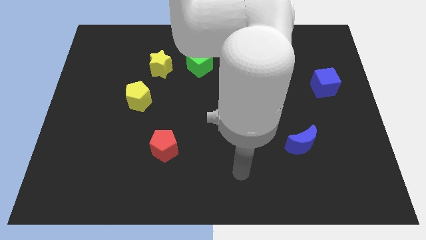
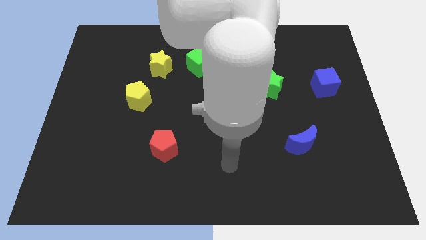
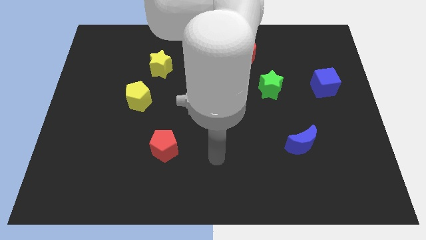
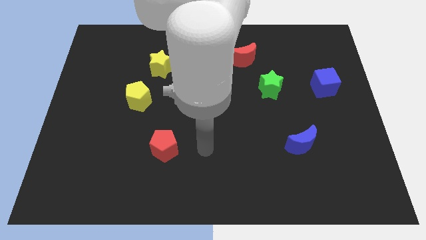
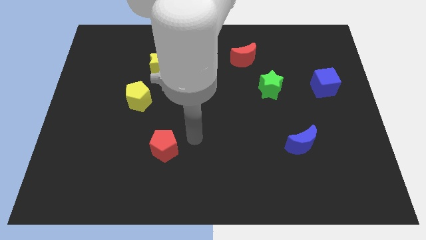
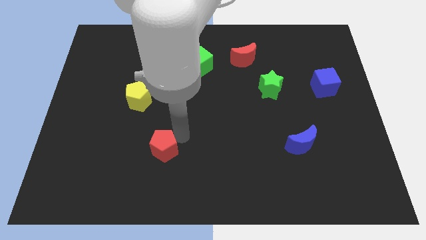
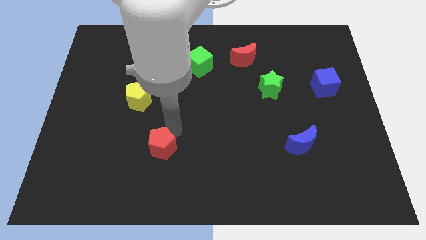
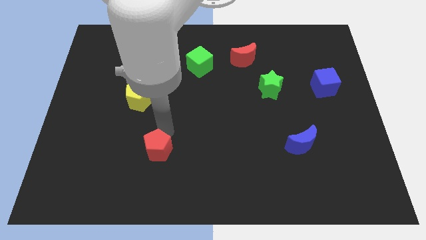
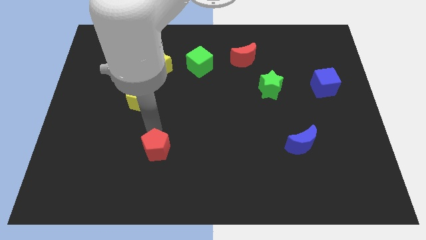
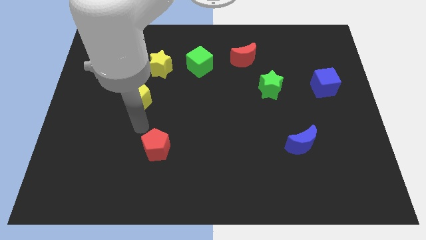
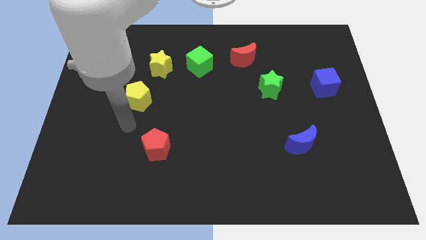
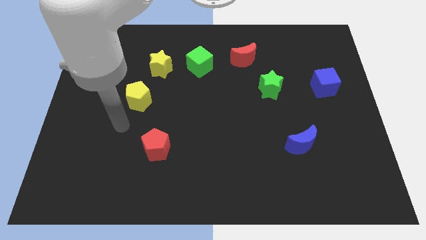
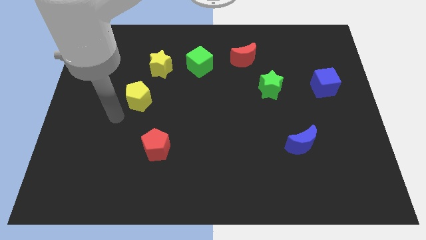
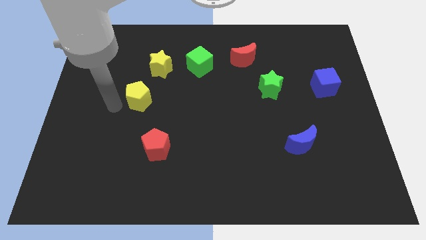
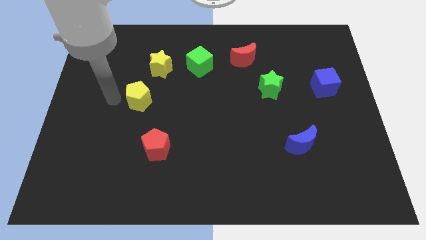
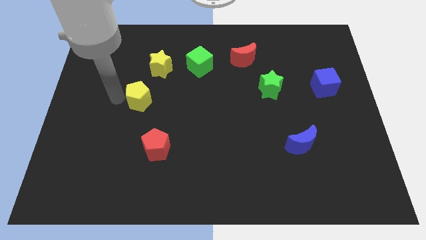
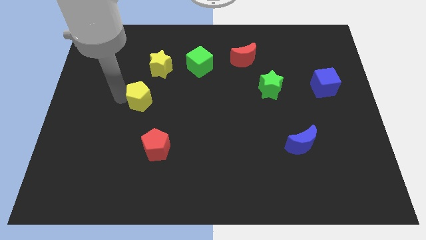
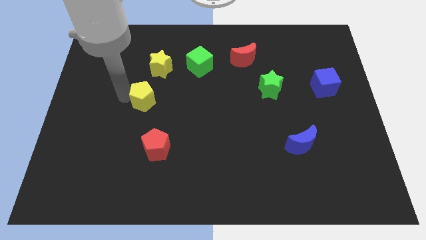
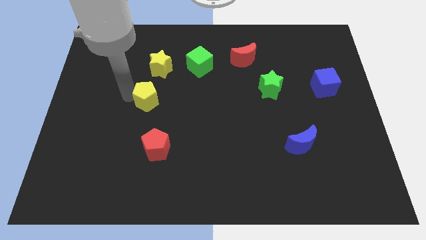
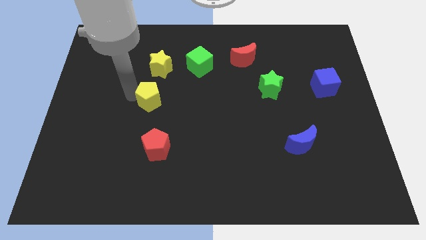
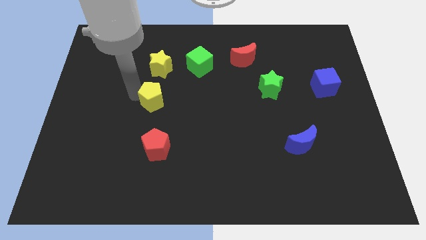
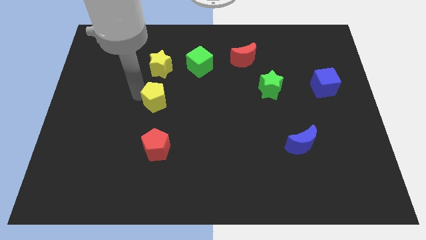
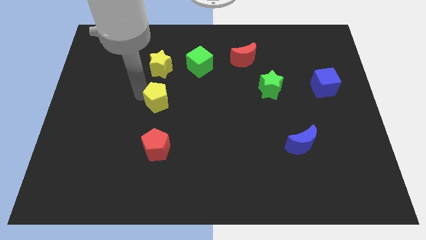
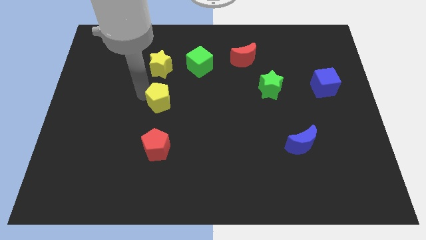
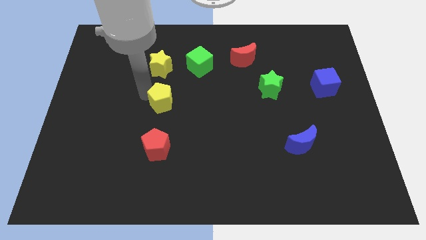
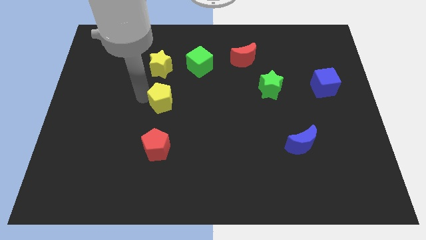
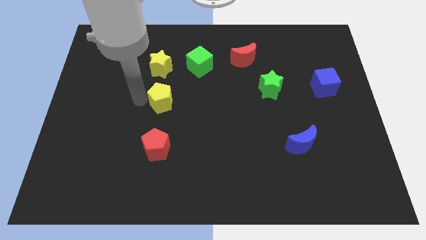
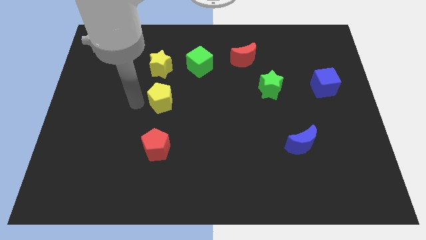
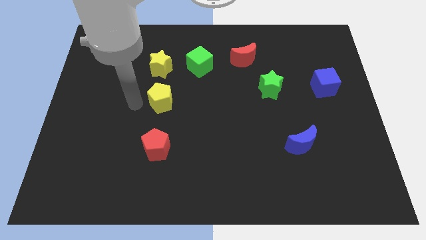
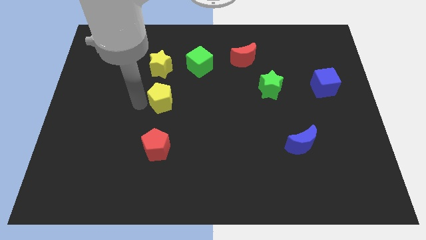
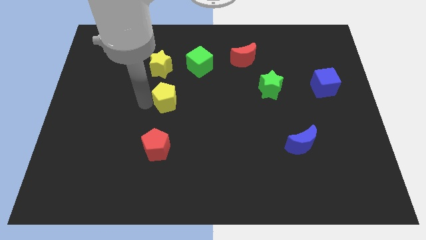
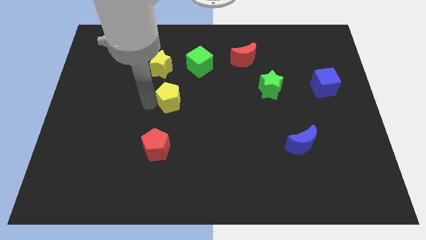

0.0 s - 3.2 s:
slide the yellow pentagon to the right a little

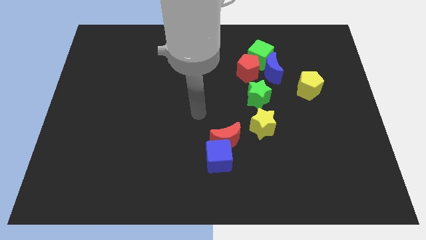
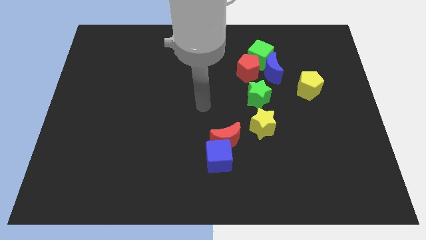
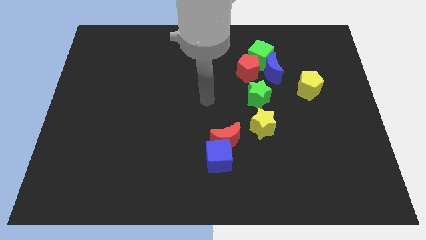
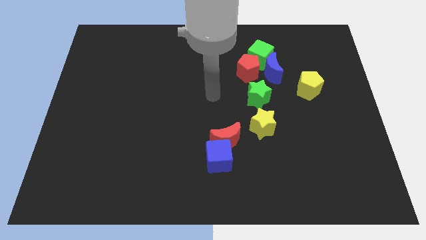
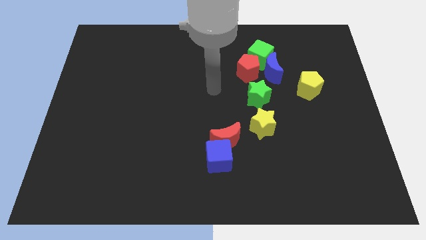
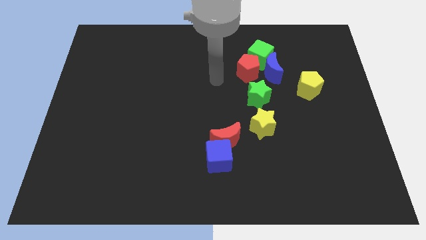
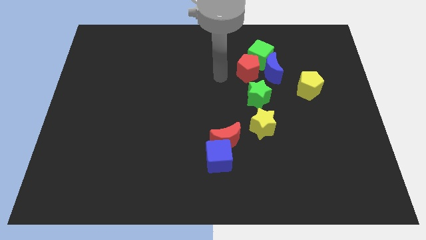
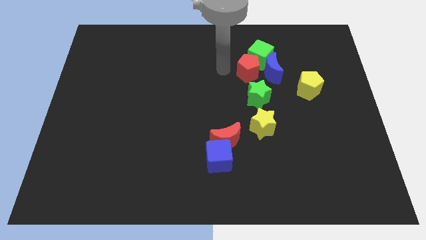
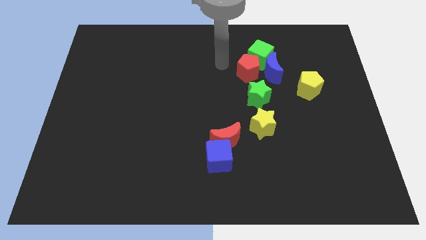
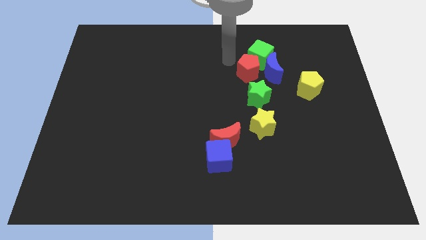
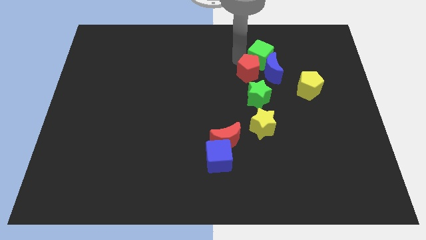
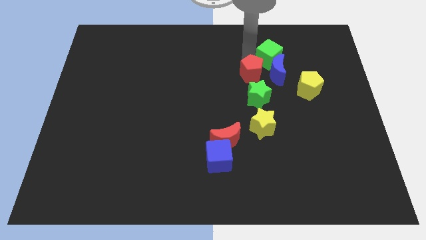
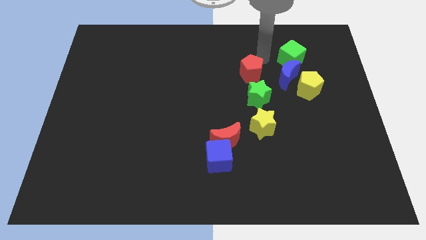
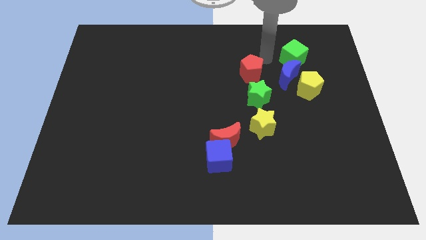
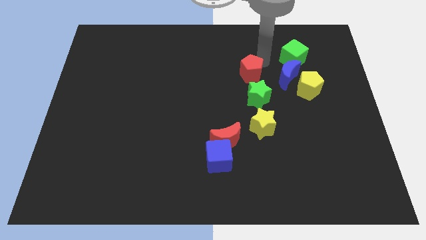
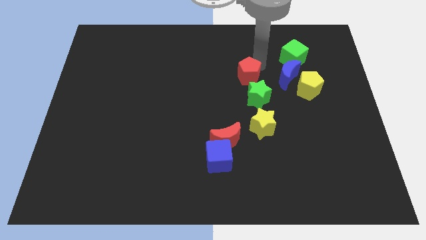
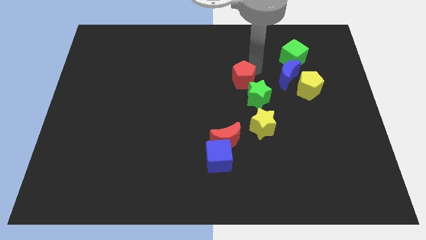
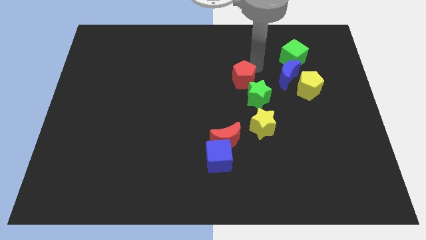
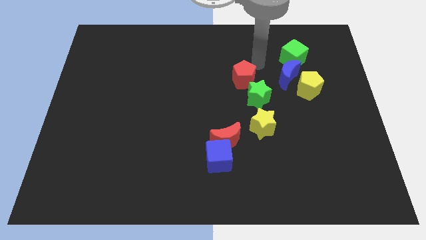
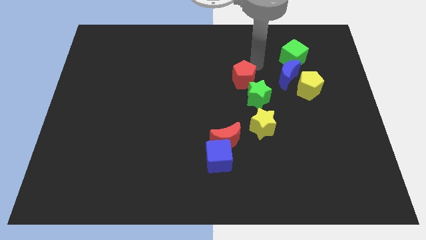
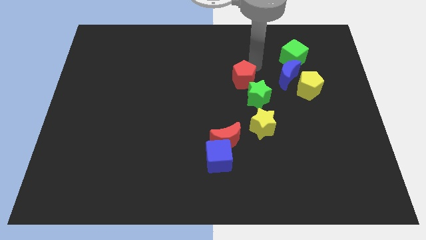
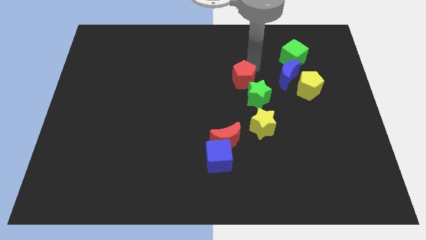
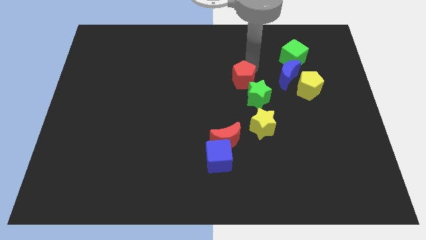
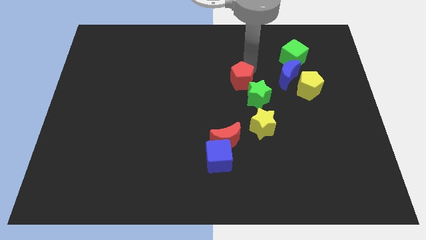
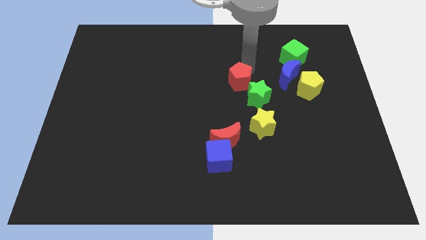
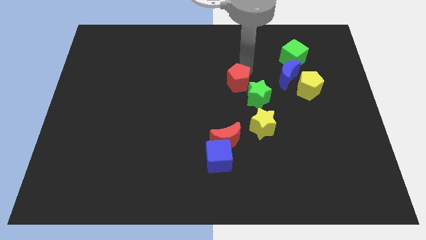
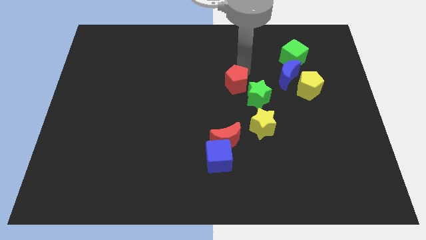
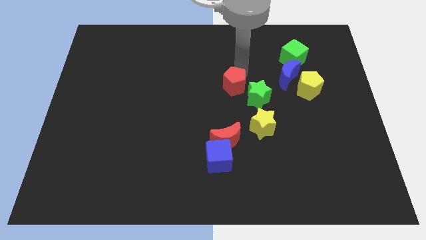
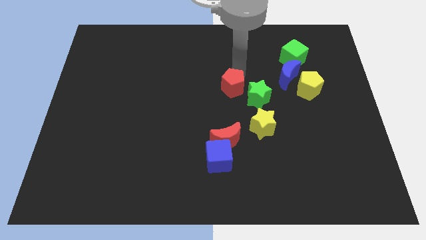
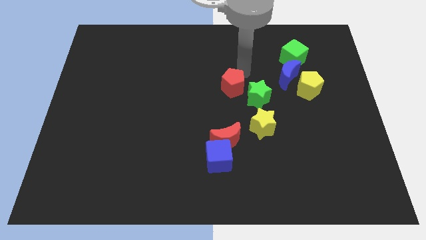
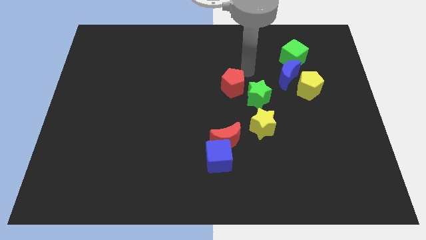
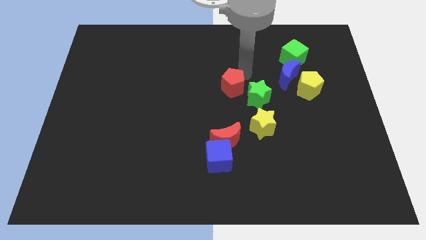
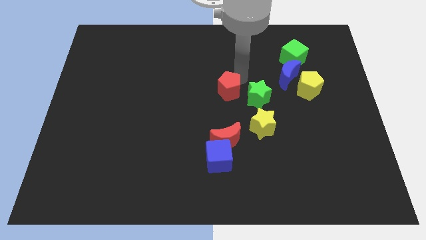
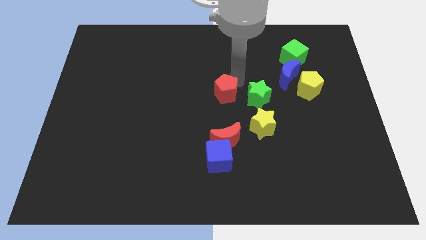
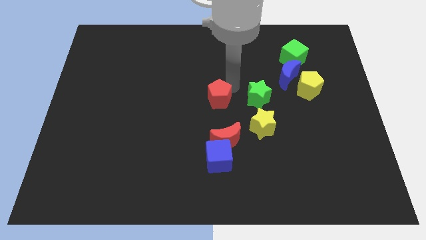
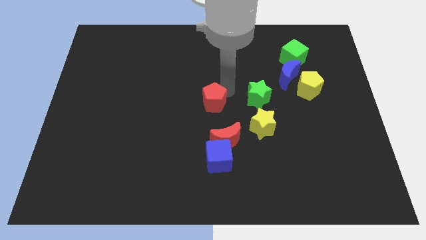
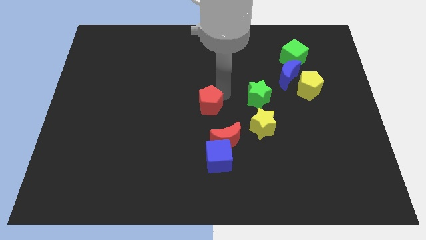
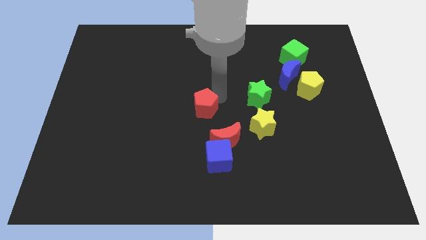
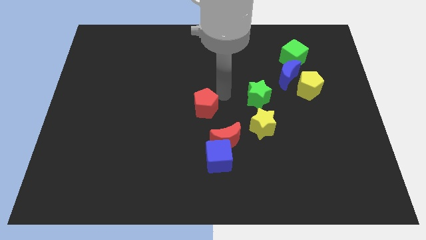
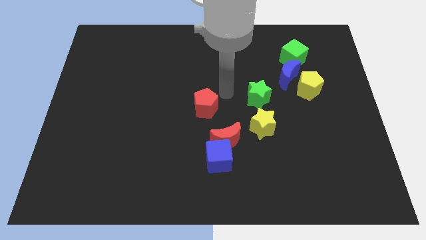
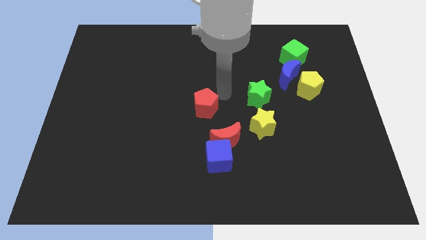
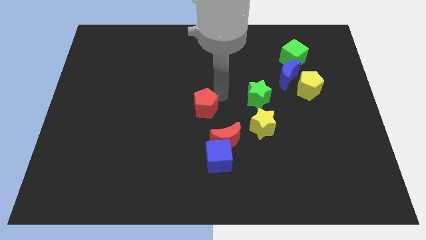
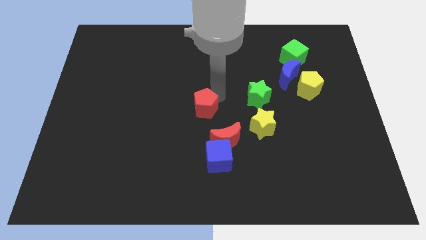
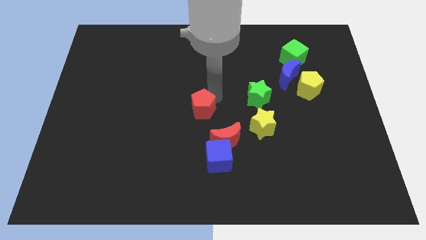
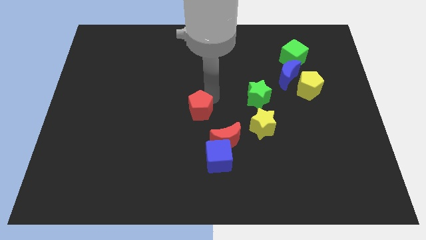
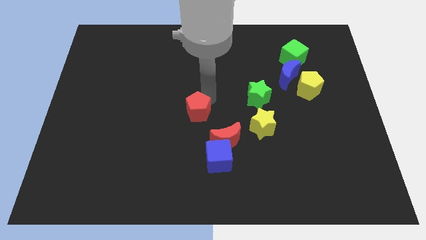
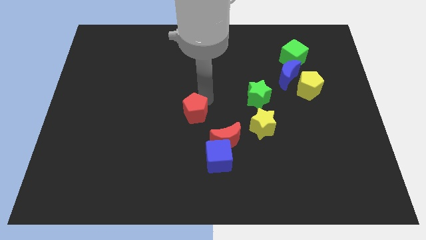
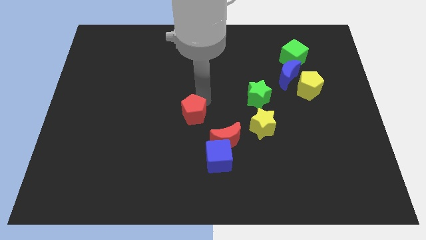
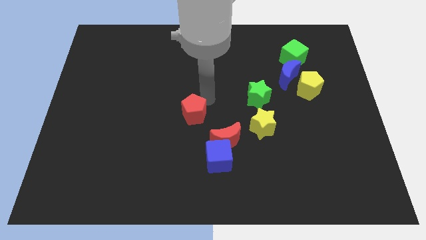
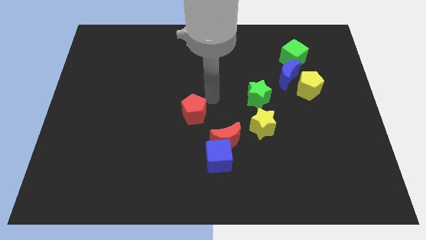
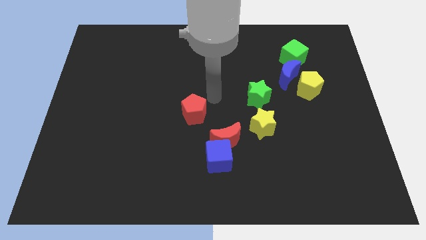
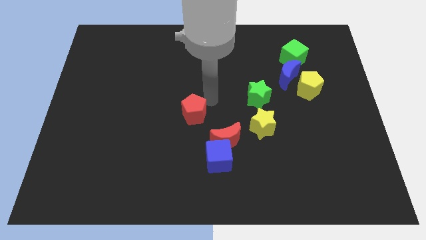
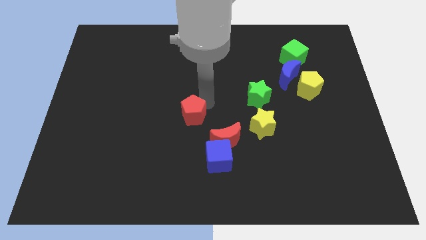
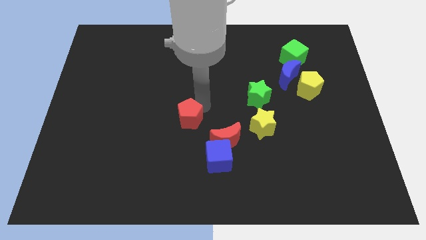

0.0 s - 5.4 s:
move the red pentagon down and then to the left
